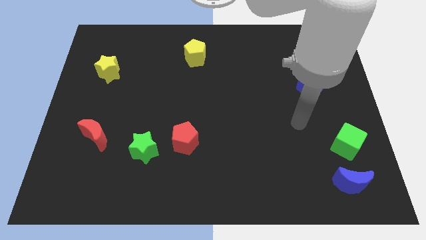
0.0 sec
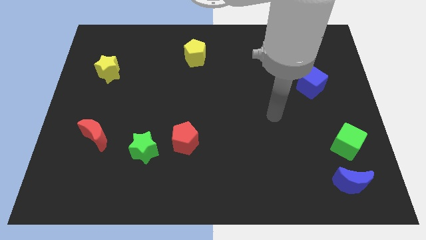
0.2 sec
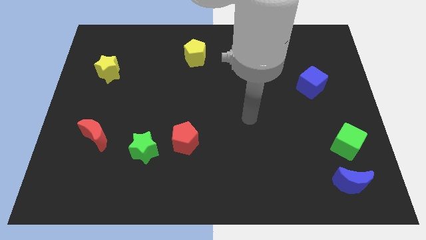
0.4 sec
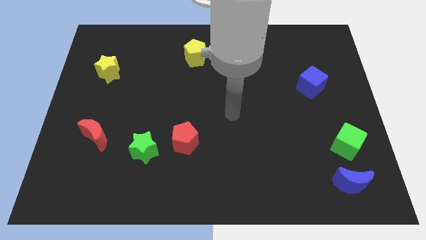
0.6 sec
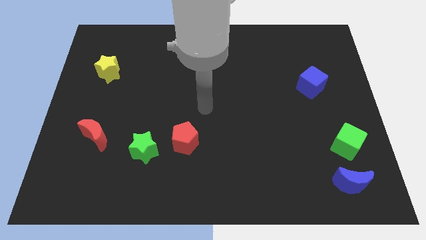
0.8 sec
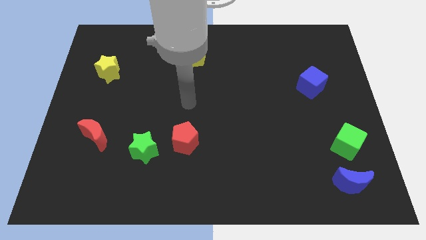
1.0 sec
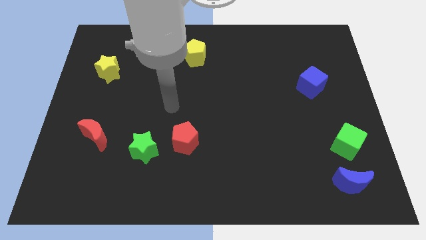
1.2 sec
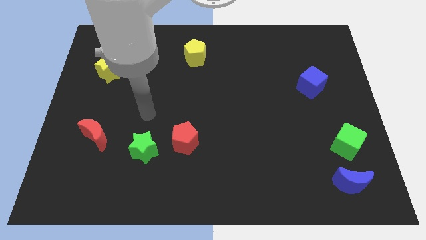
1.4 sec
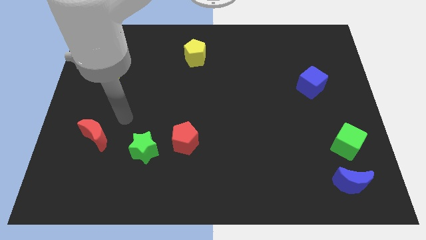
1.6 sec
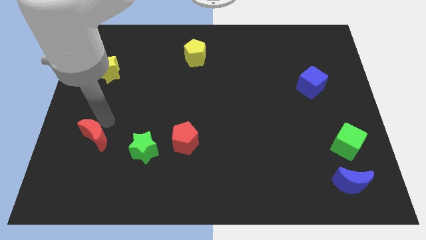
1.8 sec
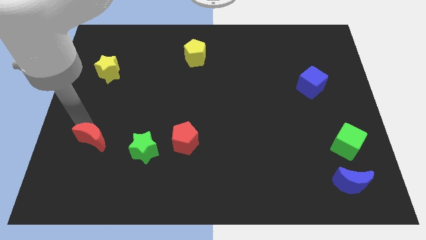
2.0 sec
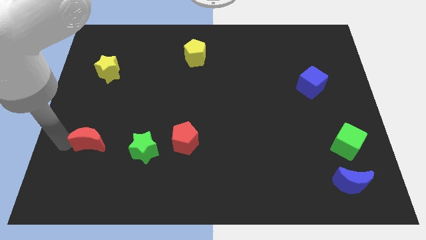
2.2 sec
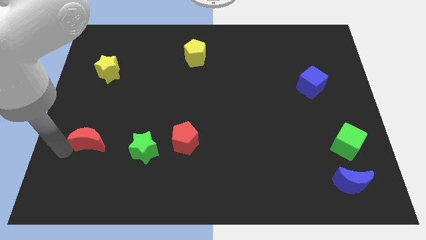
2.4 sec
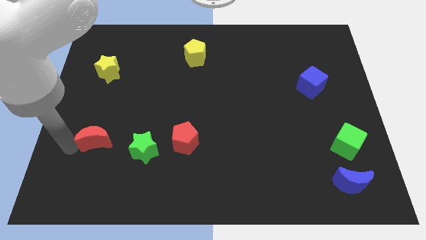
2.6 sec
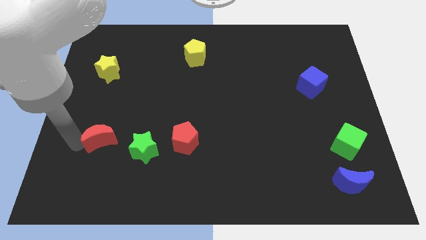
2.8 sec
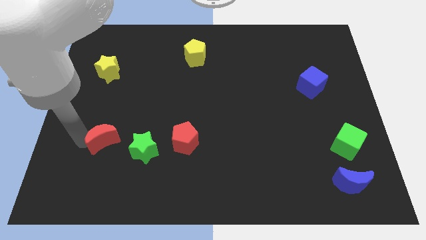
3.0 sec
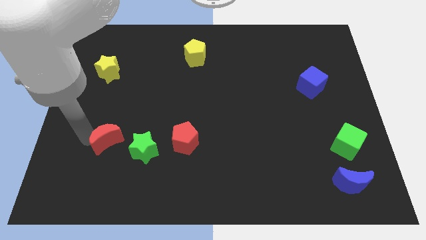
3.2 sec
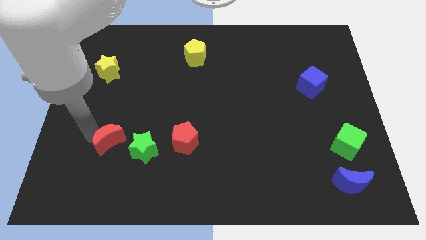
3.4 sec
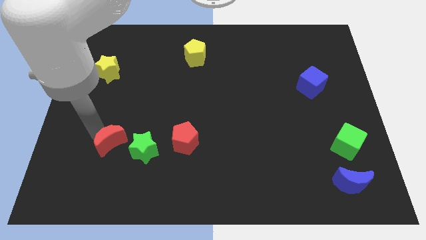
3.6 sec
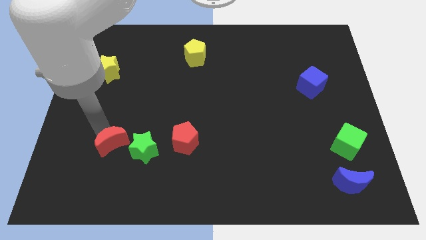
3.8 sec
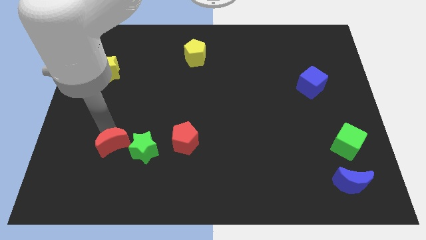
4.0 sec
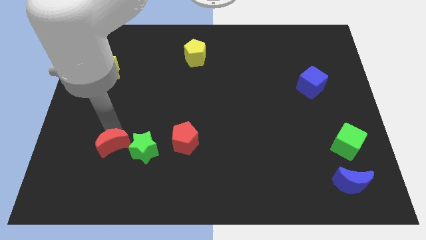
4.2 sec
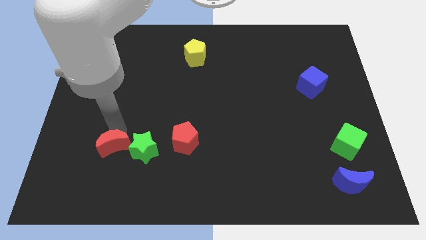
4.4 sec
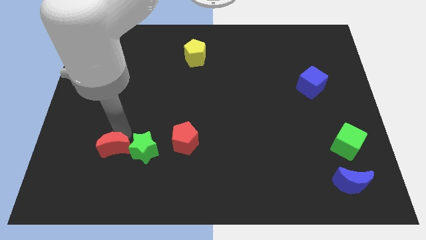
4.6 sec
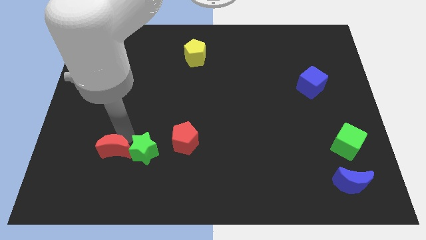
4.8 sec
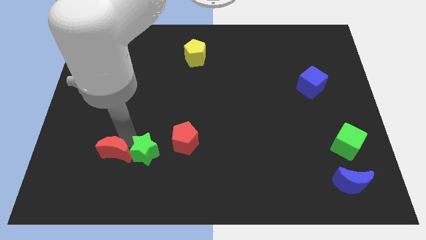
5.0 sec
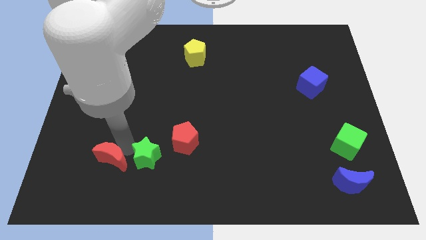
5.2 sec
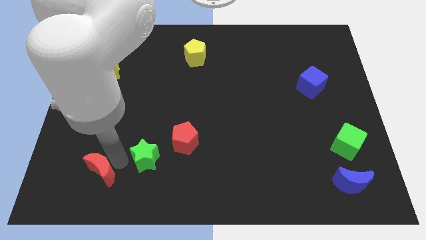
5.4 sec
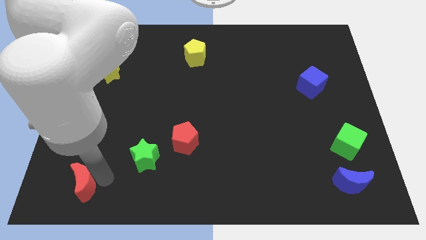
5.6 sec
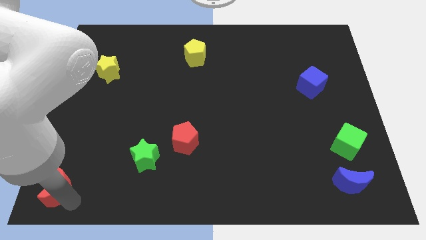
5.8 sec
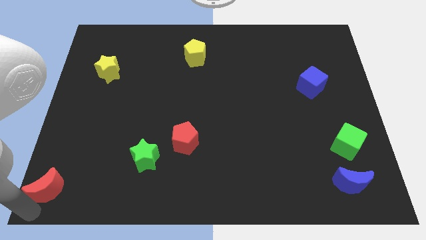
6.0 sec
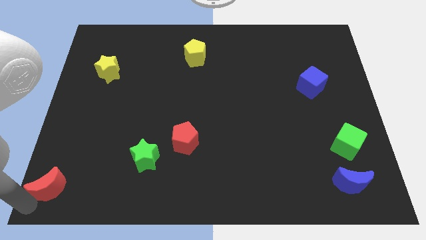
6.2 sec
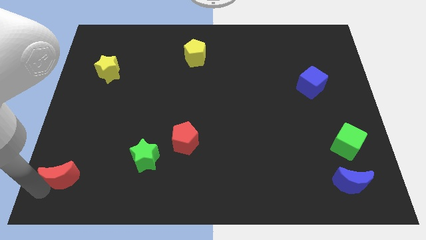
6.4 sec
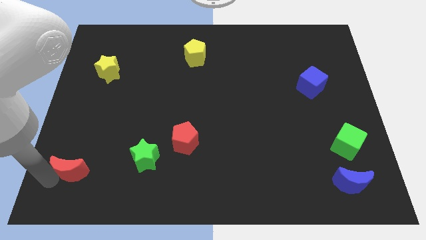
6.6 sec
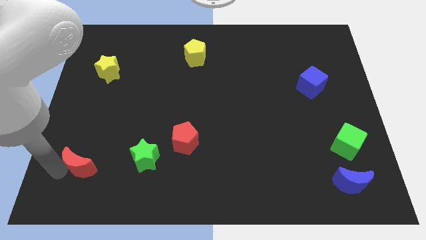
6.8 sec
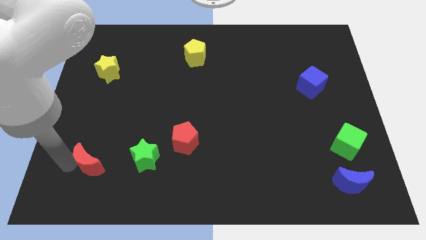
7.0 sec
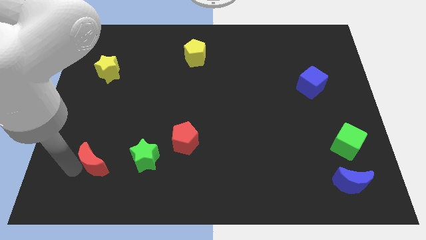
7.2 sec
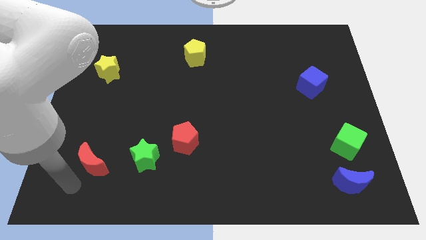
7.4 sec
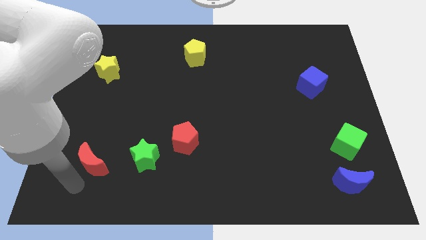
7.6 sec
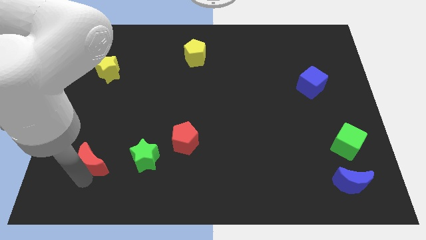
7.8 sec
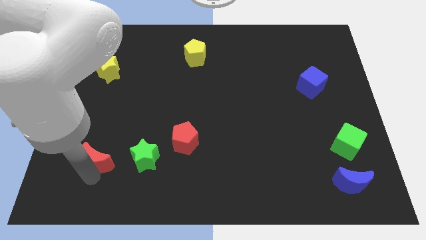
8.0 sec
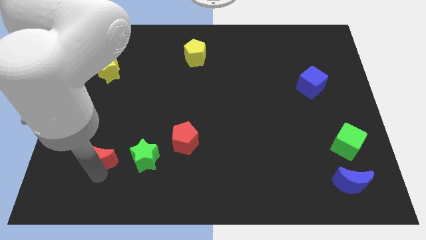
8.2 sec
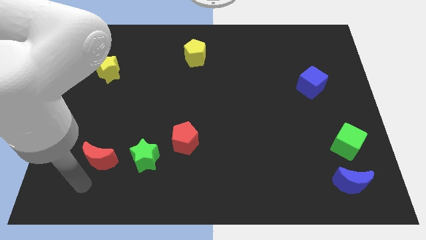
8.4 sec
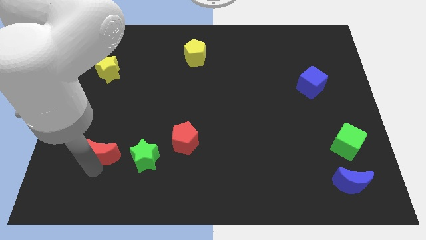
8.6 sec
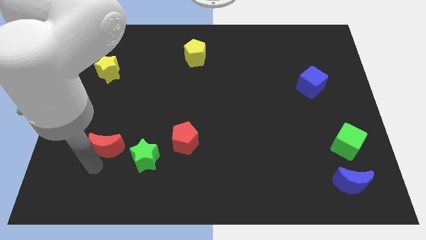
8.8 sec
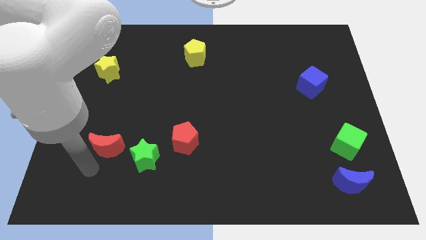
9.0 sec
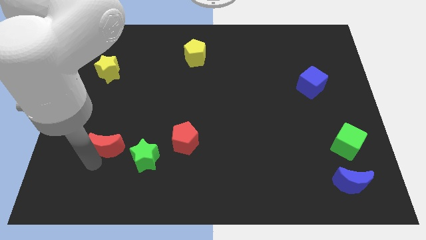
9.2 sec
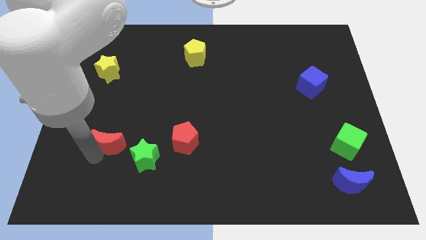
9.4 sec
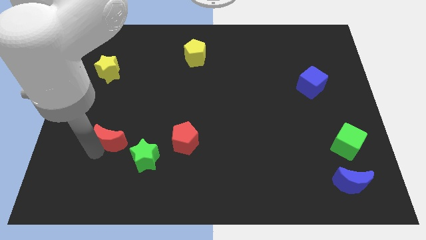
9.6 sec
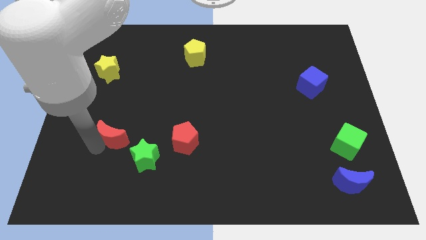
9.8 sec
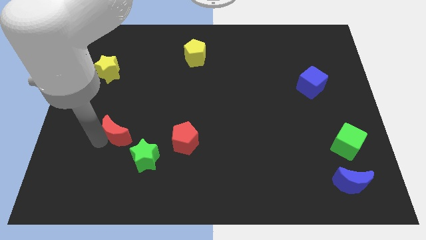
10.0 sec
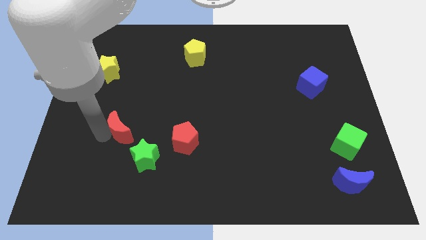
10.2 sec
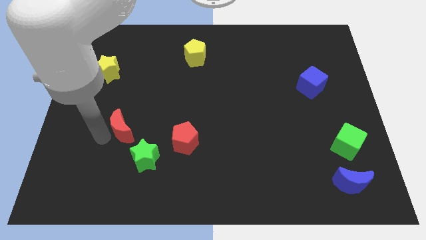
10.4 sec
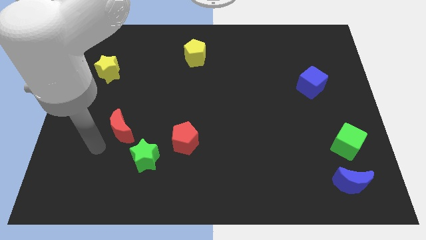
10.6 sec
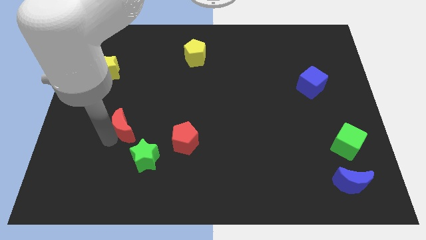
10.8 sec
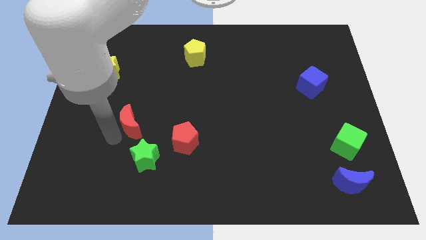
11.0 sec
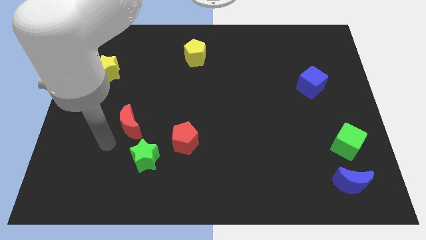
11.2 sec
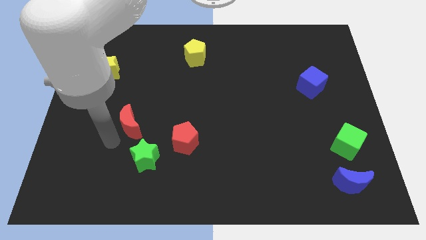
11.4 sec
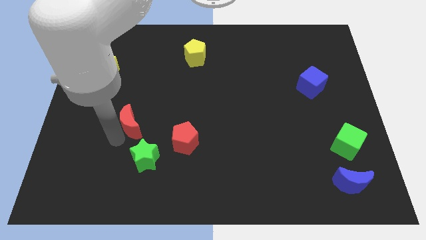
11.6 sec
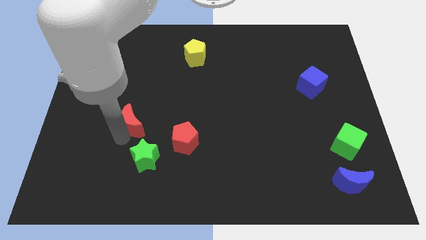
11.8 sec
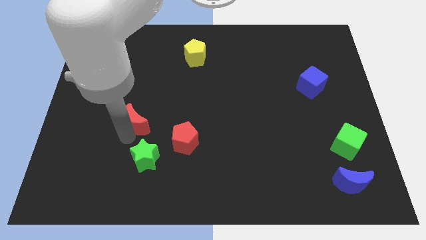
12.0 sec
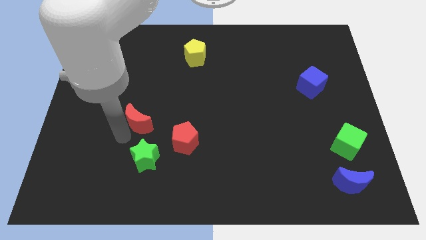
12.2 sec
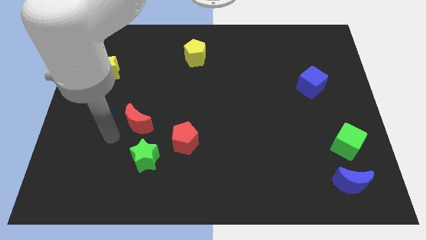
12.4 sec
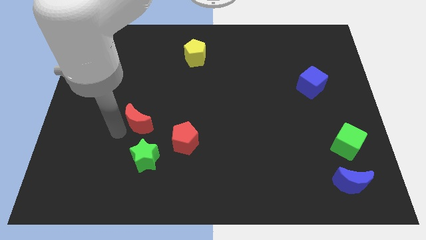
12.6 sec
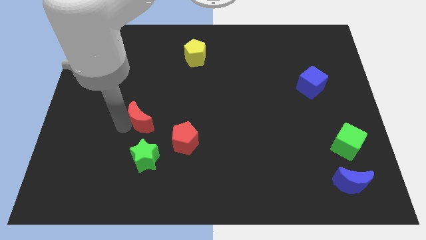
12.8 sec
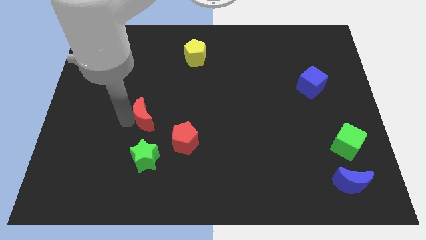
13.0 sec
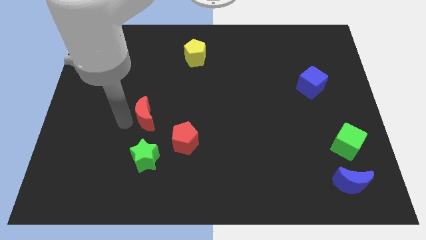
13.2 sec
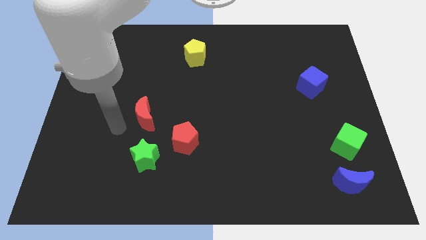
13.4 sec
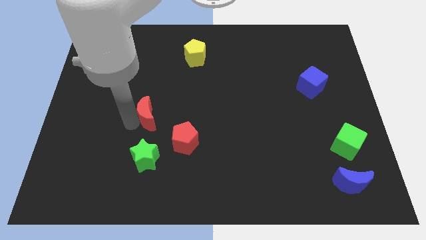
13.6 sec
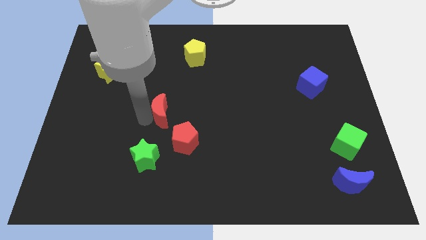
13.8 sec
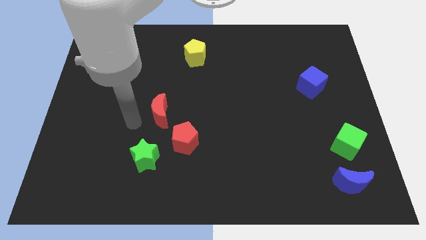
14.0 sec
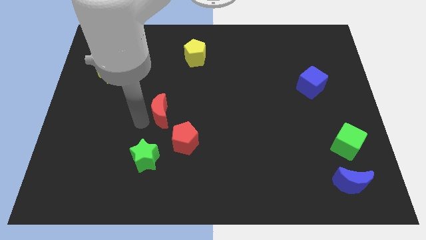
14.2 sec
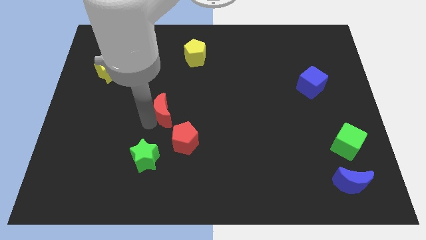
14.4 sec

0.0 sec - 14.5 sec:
push the red moon to the middle
